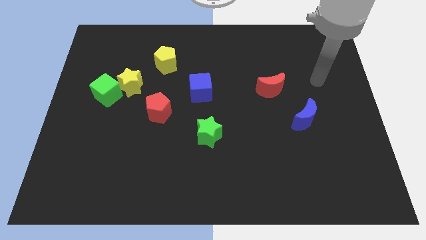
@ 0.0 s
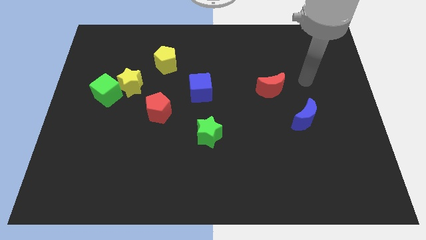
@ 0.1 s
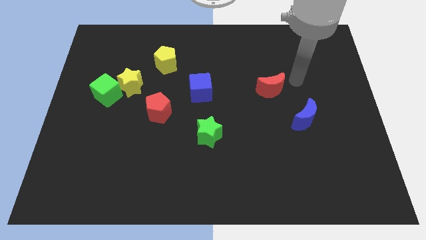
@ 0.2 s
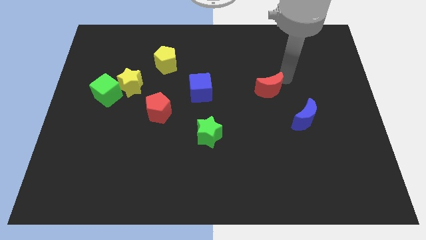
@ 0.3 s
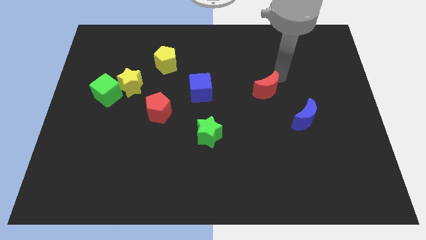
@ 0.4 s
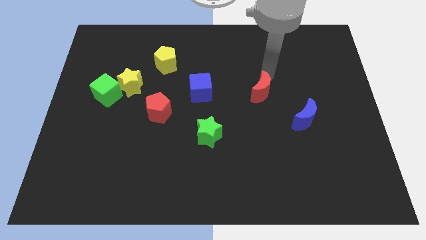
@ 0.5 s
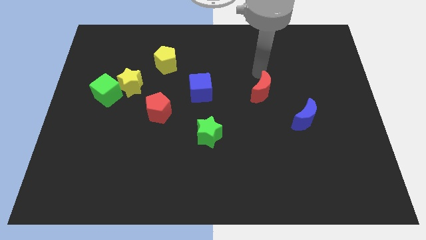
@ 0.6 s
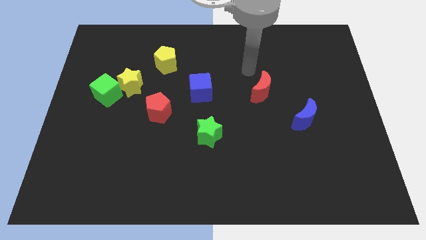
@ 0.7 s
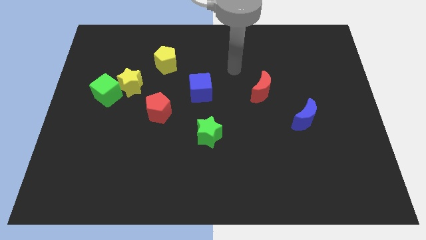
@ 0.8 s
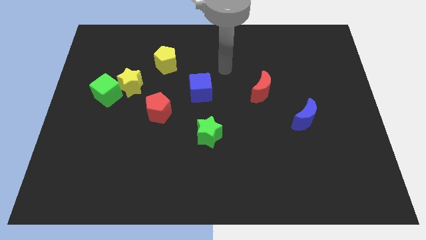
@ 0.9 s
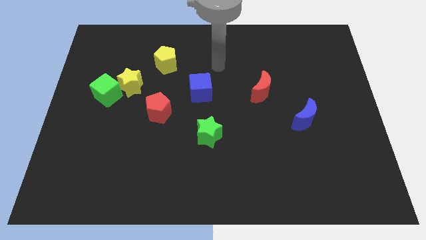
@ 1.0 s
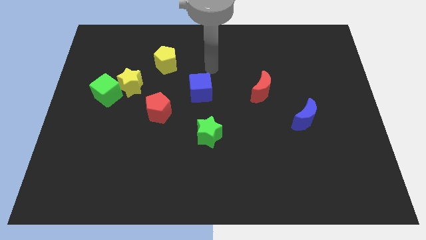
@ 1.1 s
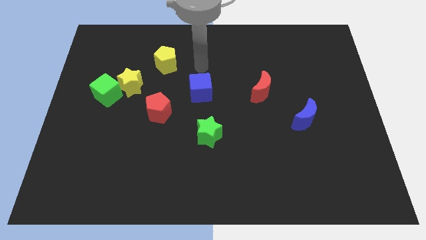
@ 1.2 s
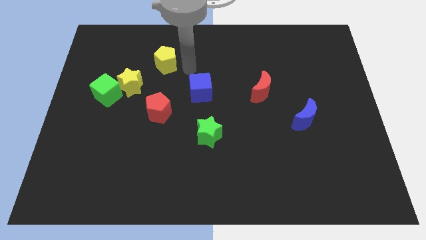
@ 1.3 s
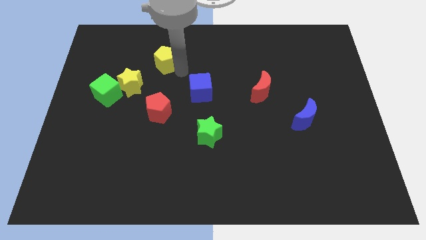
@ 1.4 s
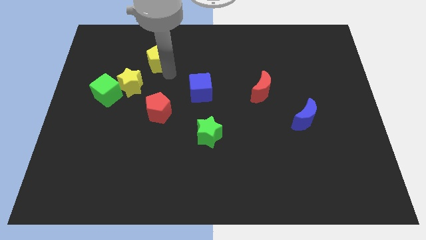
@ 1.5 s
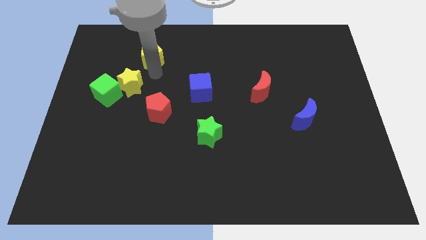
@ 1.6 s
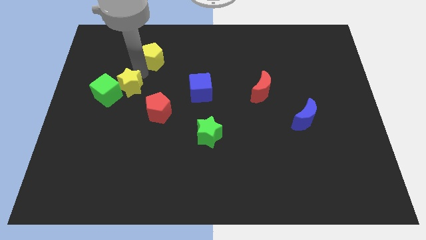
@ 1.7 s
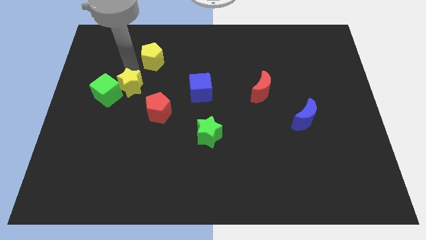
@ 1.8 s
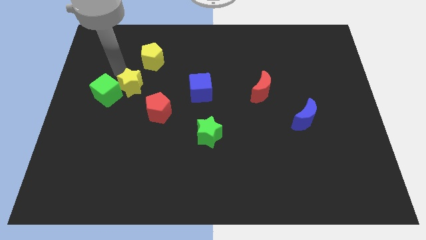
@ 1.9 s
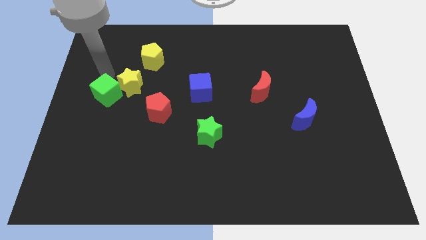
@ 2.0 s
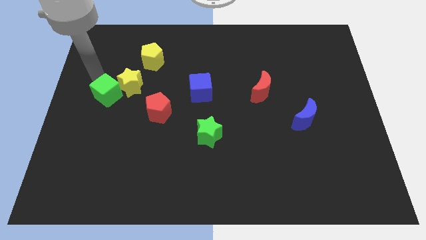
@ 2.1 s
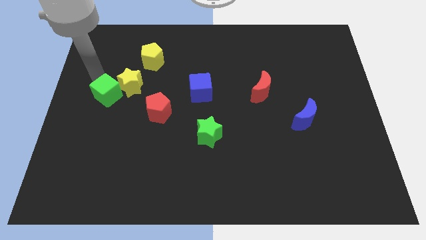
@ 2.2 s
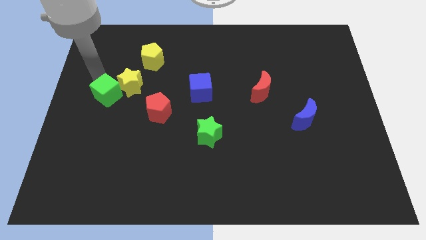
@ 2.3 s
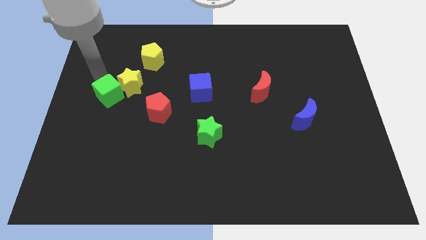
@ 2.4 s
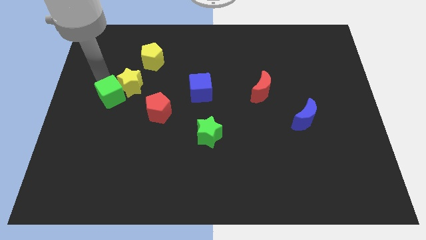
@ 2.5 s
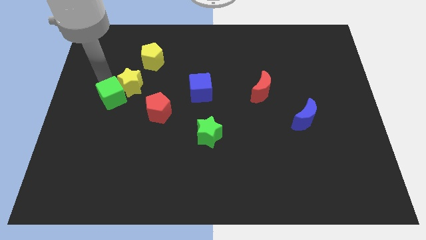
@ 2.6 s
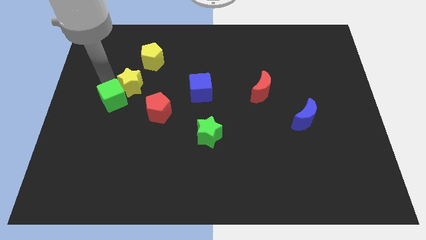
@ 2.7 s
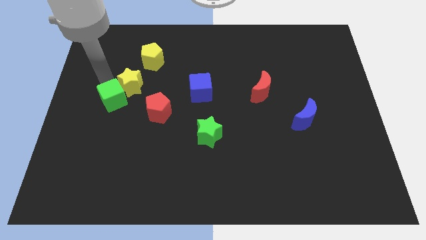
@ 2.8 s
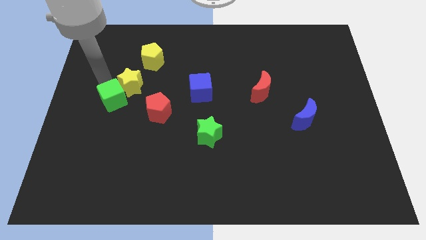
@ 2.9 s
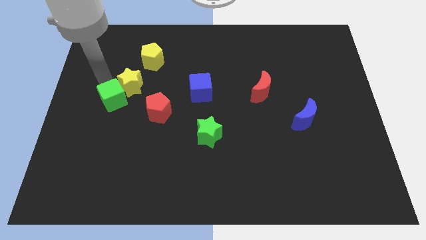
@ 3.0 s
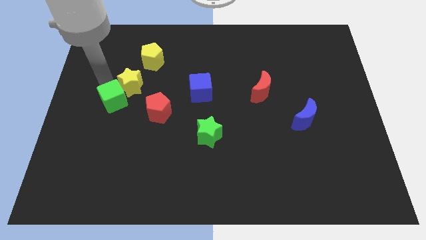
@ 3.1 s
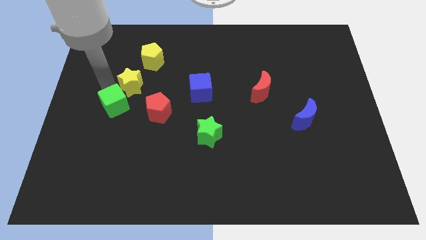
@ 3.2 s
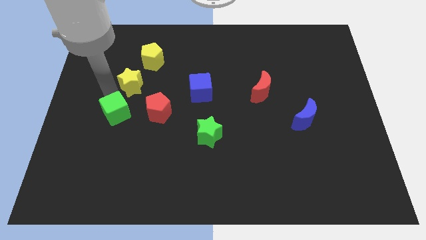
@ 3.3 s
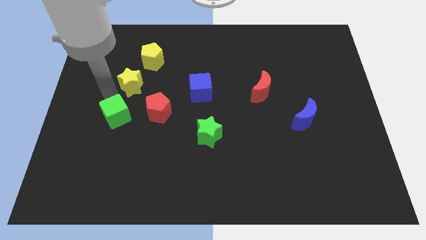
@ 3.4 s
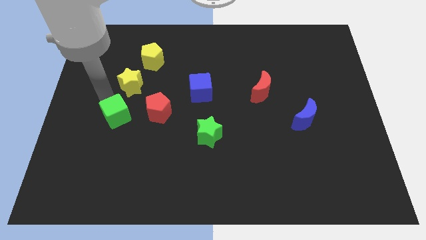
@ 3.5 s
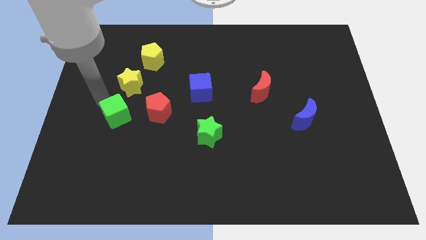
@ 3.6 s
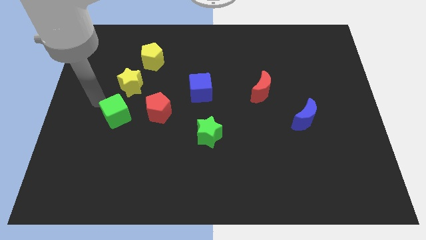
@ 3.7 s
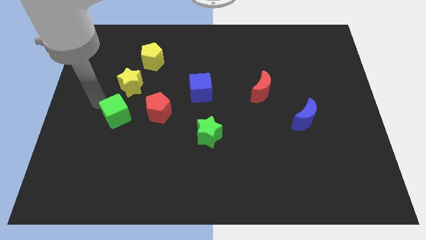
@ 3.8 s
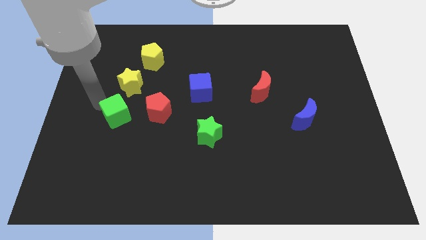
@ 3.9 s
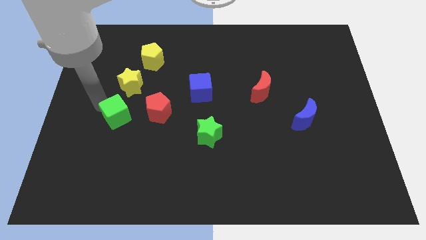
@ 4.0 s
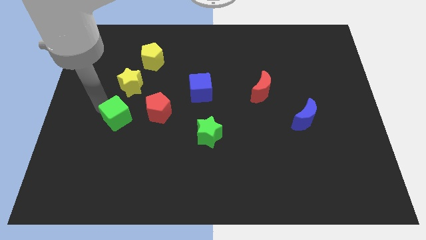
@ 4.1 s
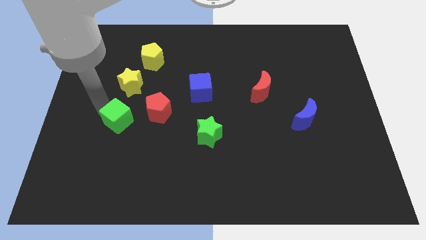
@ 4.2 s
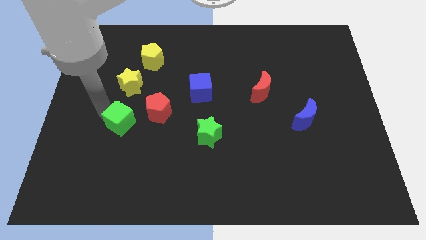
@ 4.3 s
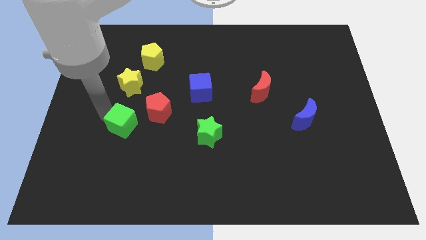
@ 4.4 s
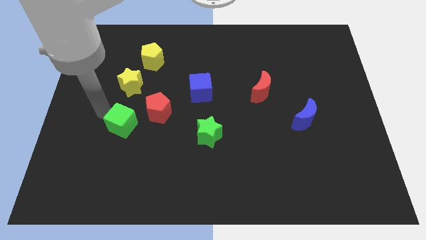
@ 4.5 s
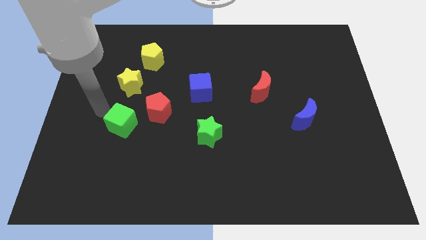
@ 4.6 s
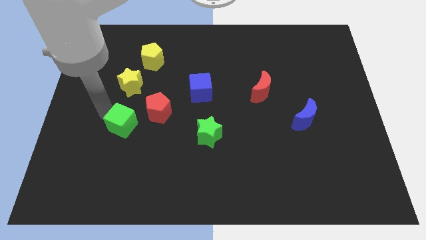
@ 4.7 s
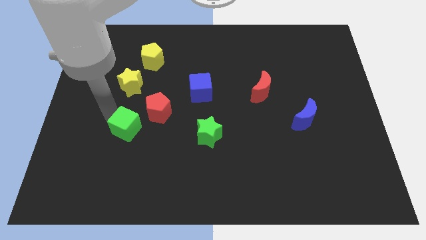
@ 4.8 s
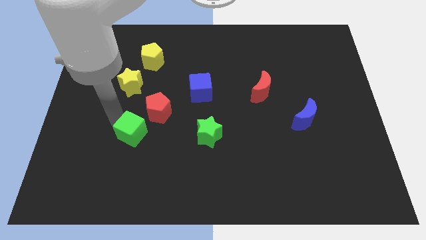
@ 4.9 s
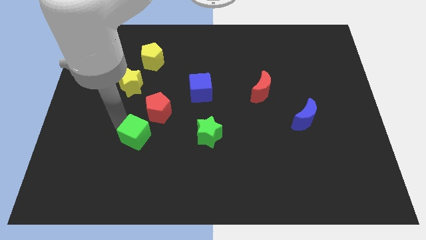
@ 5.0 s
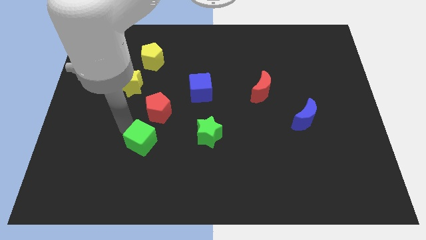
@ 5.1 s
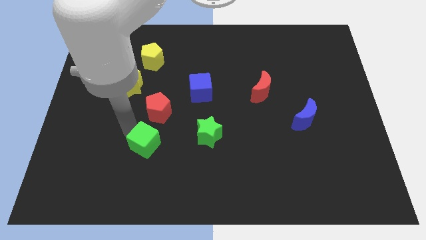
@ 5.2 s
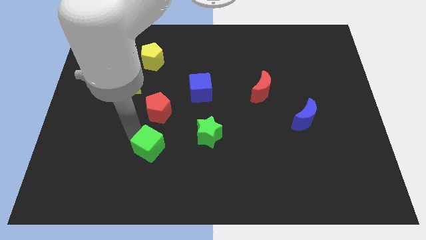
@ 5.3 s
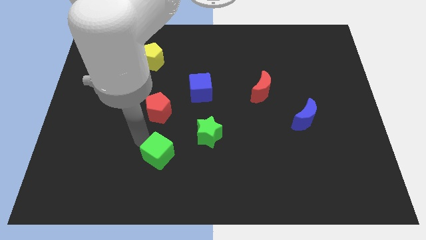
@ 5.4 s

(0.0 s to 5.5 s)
push the green cube diagonally downwards and to the right

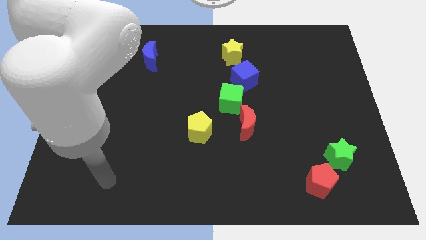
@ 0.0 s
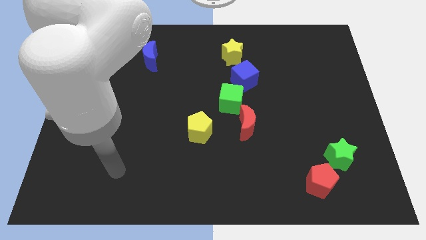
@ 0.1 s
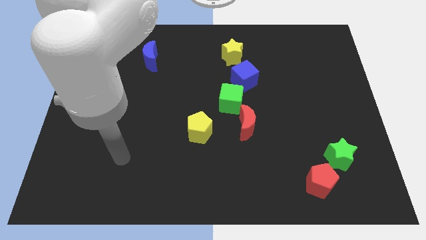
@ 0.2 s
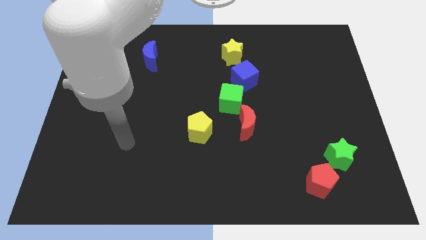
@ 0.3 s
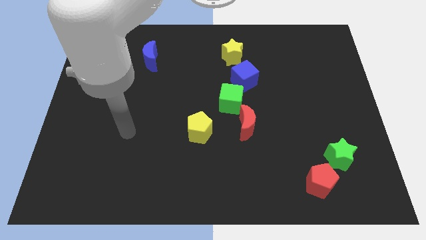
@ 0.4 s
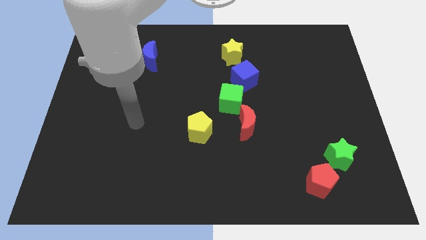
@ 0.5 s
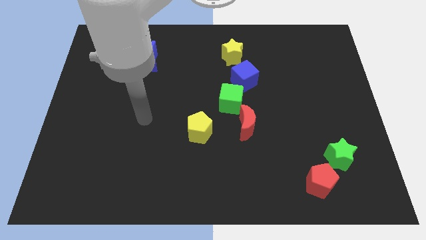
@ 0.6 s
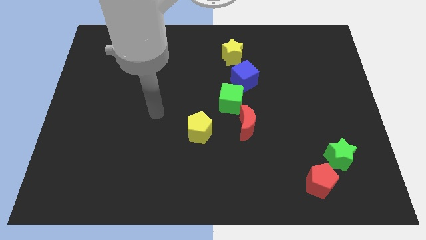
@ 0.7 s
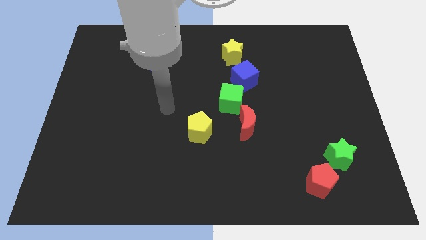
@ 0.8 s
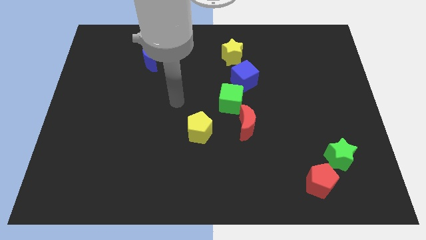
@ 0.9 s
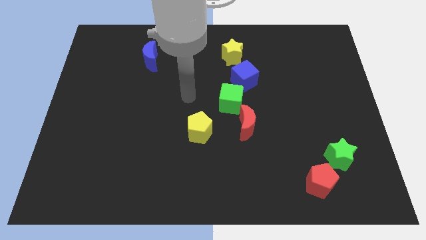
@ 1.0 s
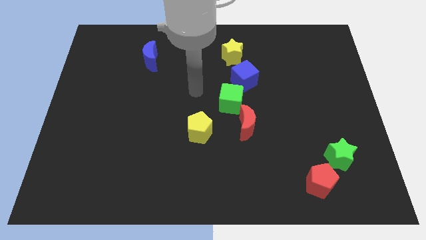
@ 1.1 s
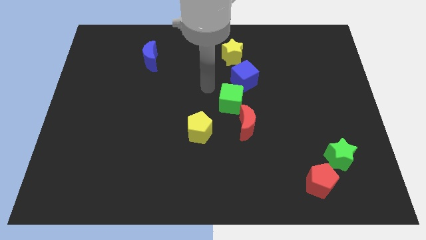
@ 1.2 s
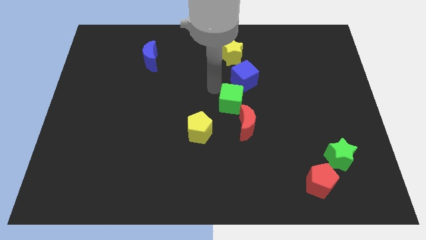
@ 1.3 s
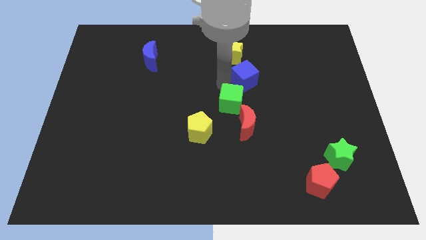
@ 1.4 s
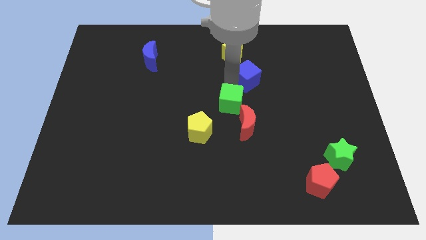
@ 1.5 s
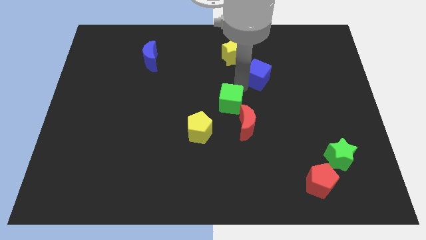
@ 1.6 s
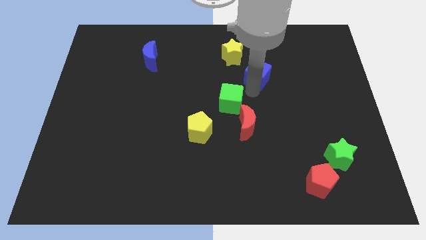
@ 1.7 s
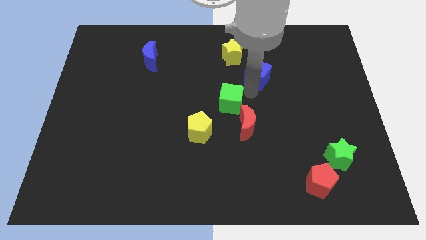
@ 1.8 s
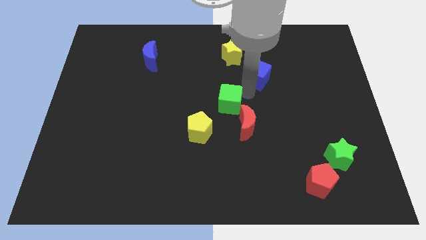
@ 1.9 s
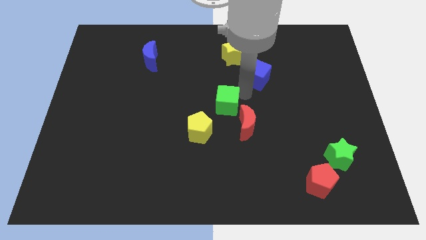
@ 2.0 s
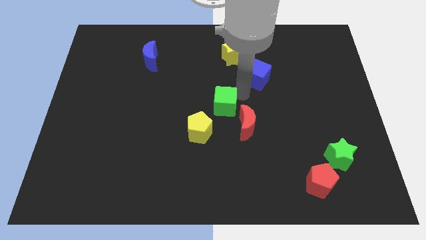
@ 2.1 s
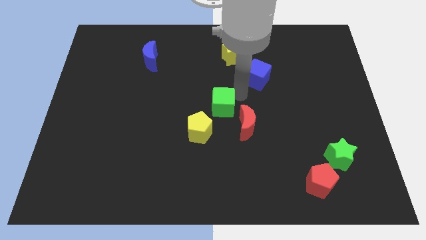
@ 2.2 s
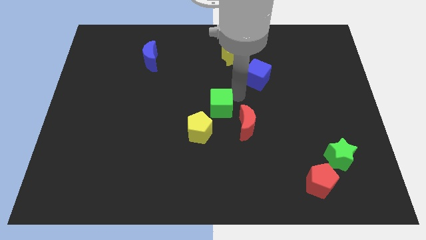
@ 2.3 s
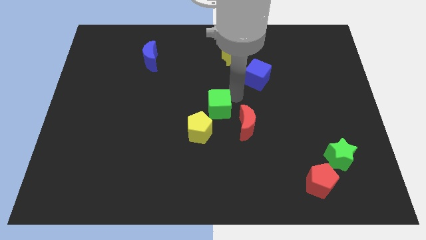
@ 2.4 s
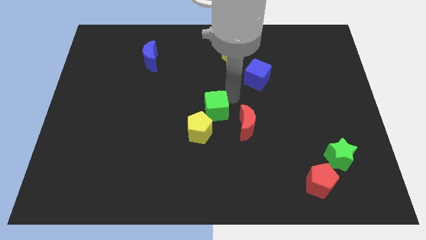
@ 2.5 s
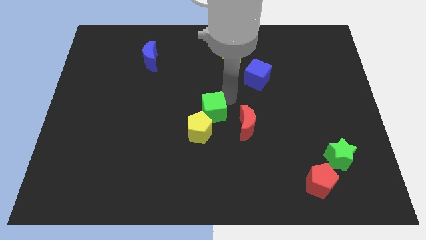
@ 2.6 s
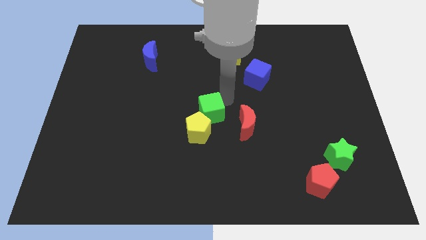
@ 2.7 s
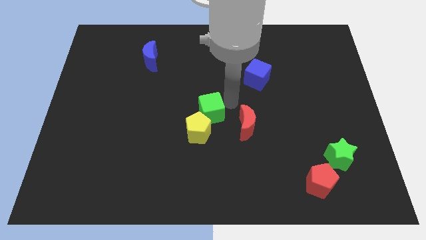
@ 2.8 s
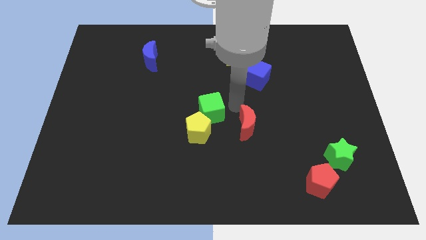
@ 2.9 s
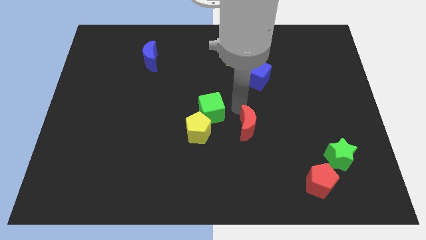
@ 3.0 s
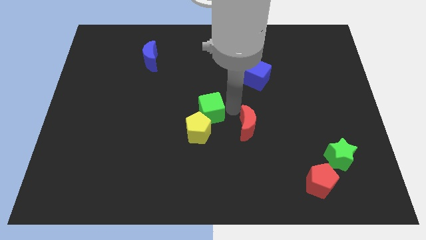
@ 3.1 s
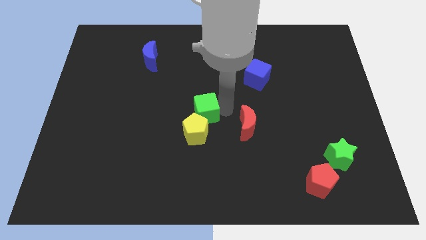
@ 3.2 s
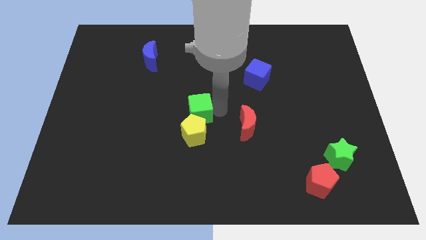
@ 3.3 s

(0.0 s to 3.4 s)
slightly slide the green cube down and to the left diagonally
